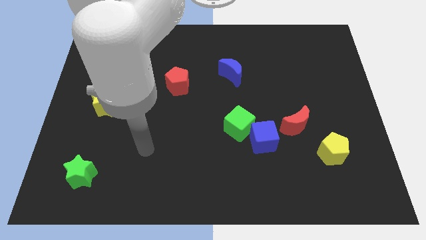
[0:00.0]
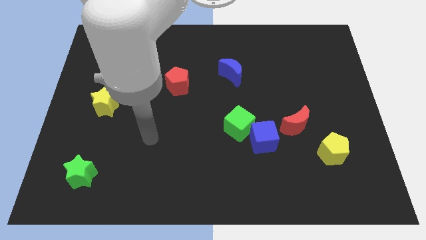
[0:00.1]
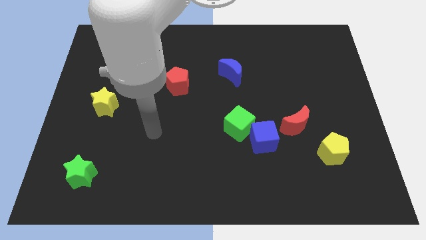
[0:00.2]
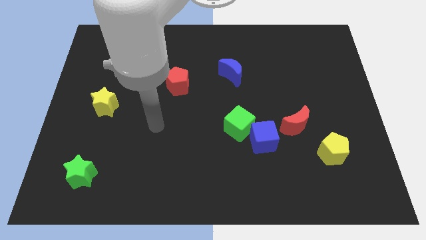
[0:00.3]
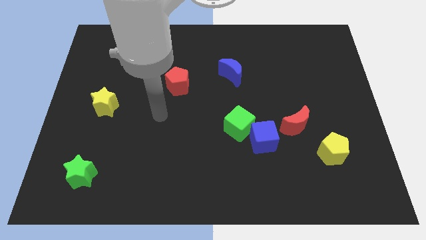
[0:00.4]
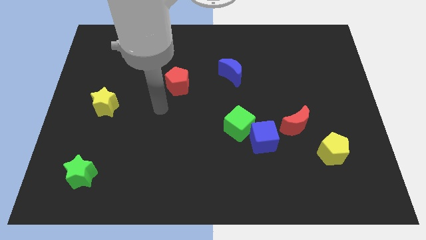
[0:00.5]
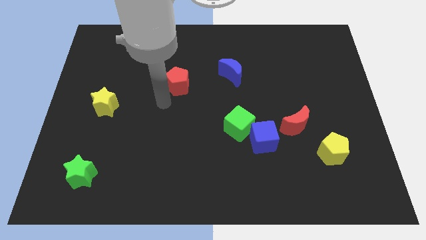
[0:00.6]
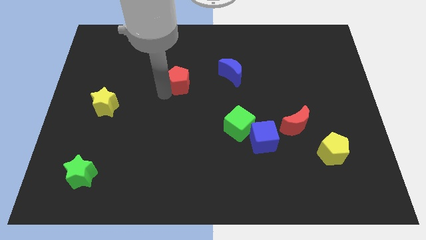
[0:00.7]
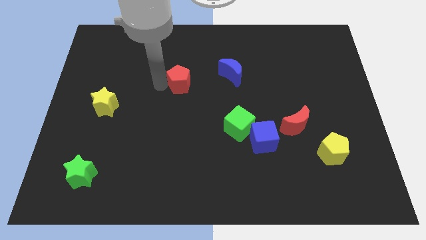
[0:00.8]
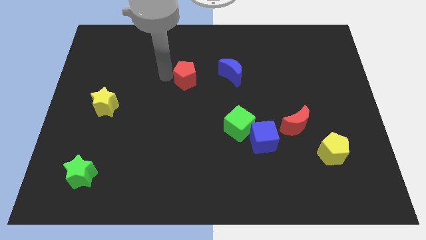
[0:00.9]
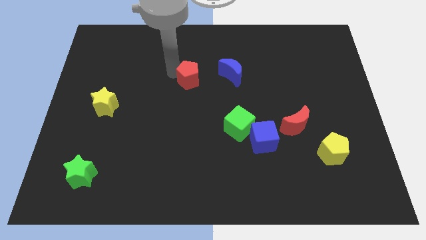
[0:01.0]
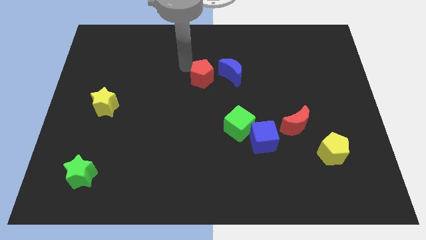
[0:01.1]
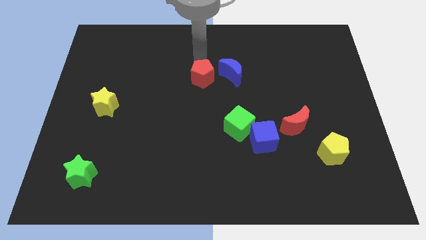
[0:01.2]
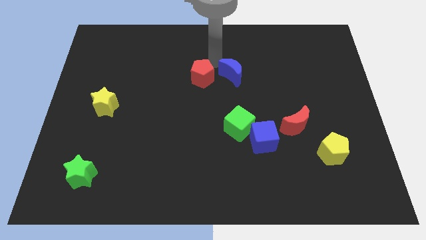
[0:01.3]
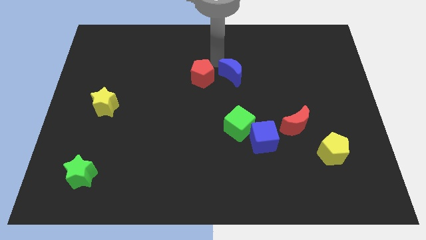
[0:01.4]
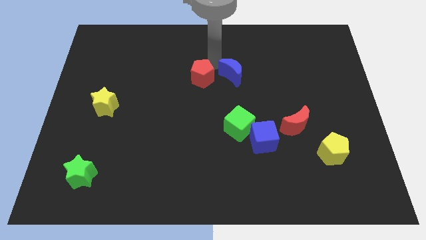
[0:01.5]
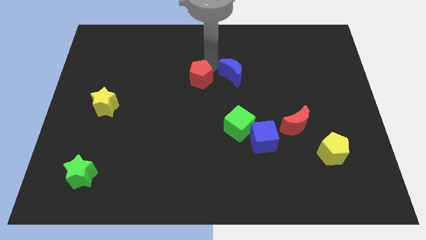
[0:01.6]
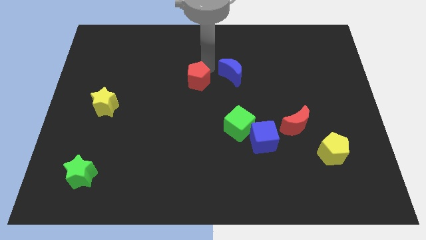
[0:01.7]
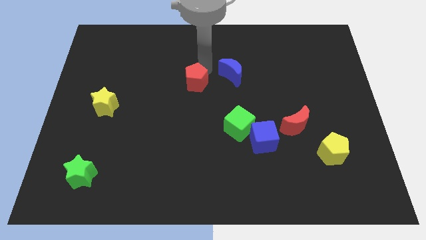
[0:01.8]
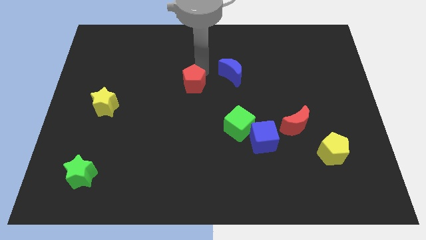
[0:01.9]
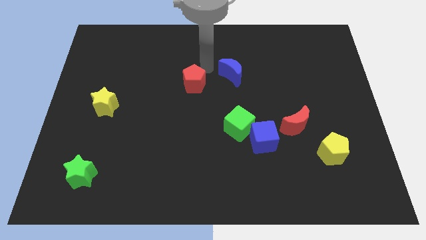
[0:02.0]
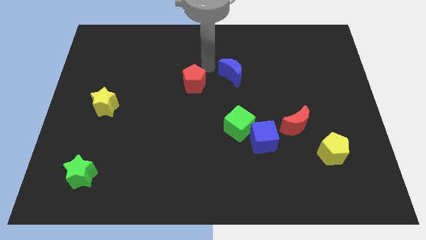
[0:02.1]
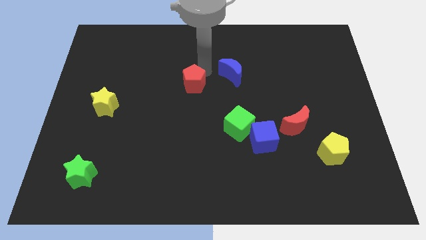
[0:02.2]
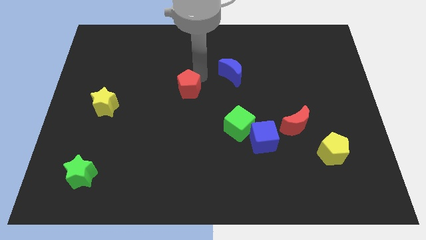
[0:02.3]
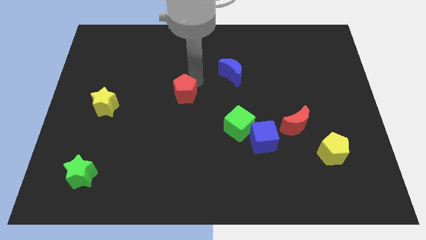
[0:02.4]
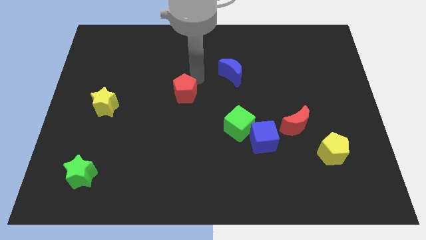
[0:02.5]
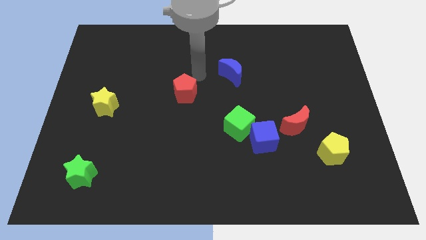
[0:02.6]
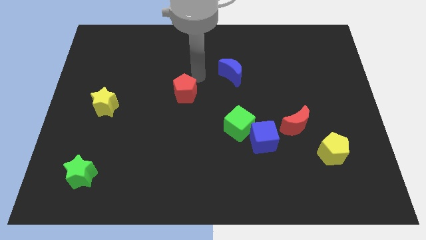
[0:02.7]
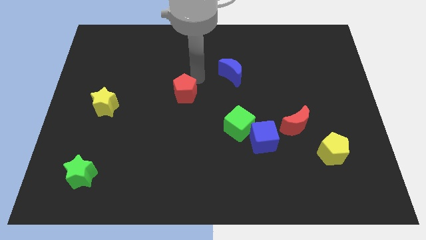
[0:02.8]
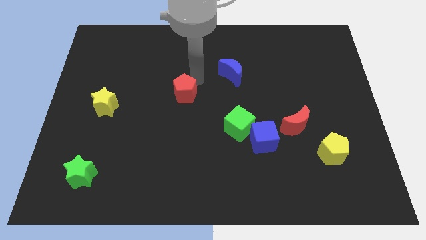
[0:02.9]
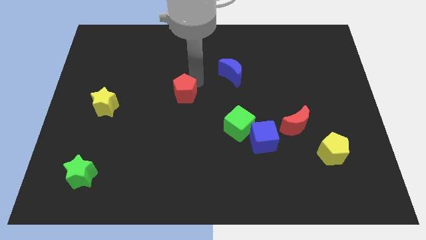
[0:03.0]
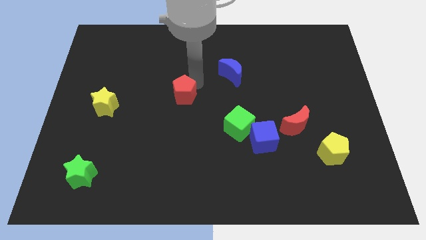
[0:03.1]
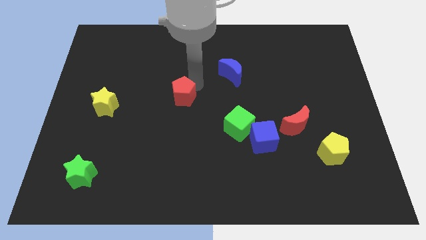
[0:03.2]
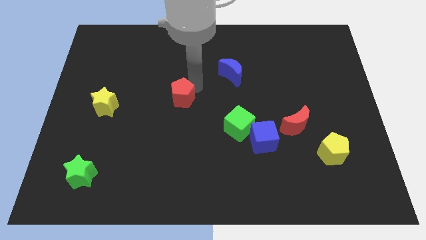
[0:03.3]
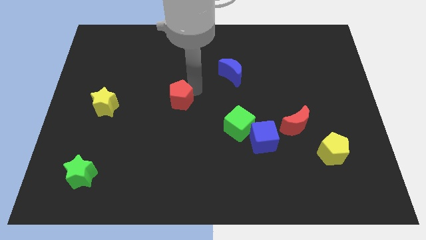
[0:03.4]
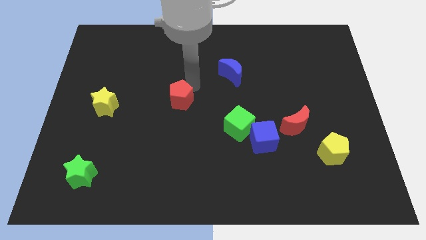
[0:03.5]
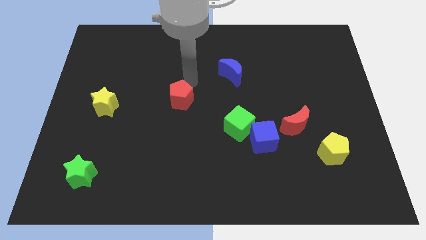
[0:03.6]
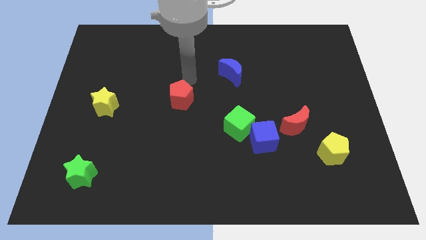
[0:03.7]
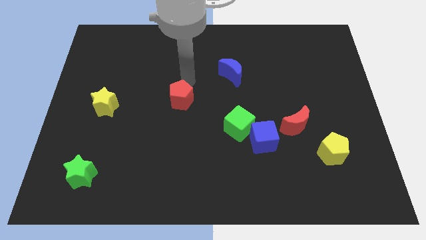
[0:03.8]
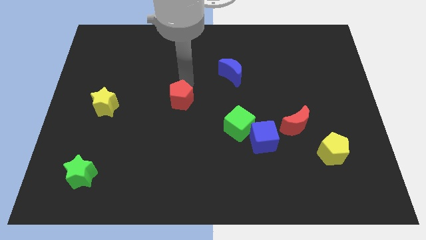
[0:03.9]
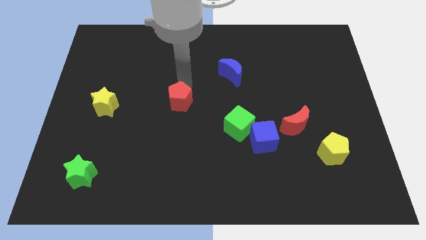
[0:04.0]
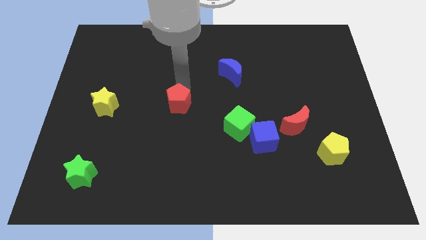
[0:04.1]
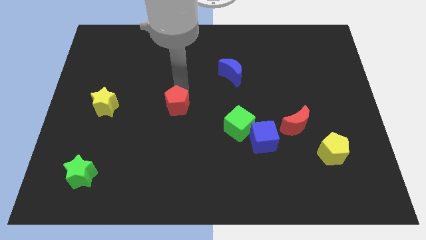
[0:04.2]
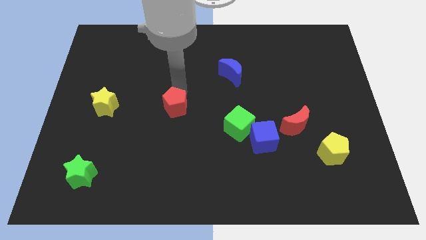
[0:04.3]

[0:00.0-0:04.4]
slightly push the red pentagon down

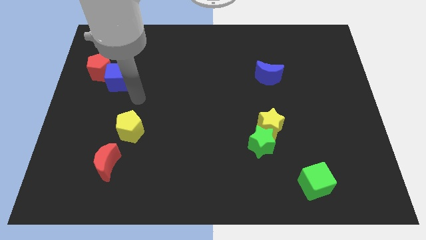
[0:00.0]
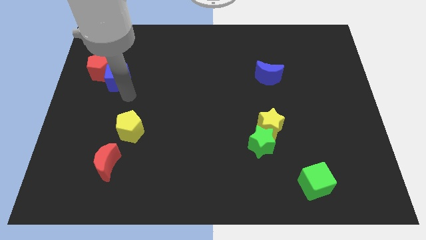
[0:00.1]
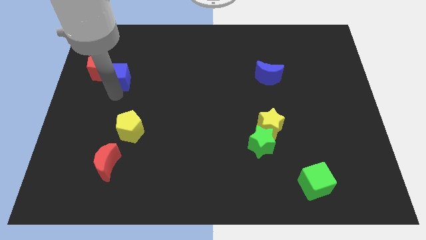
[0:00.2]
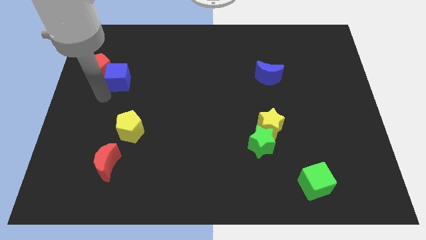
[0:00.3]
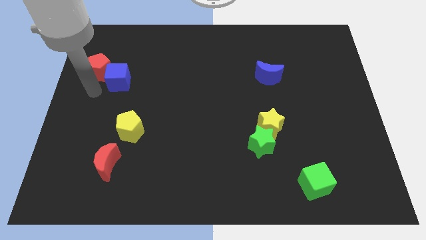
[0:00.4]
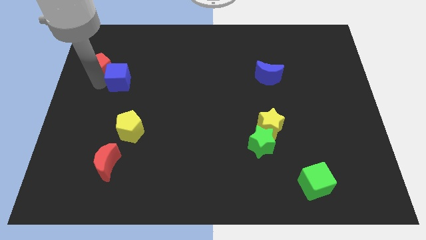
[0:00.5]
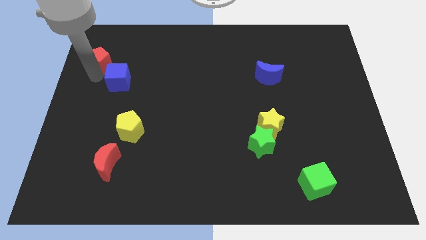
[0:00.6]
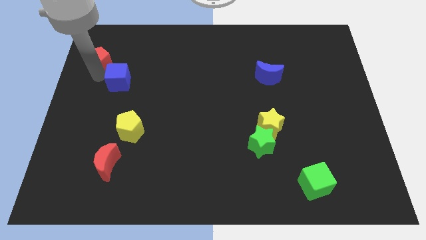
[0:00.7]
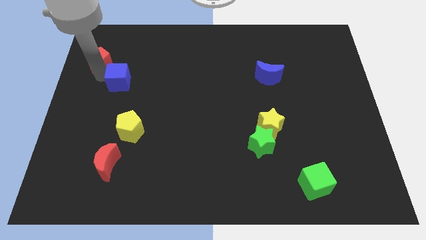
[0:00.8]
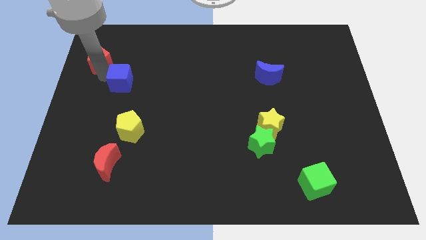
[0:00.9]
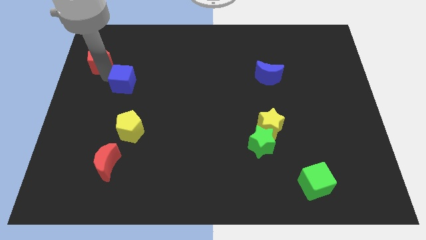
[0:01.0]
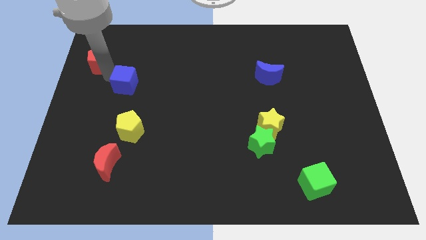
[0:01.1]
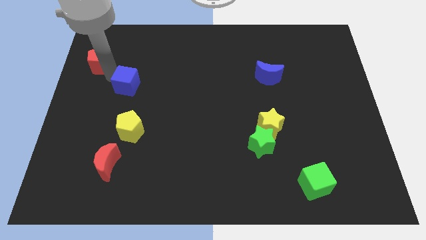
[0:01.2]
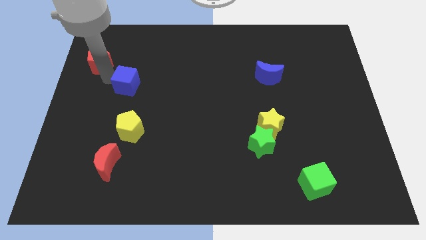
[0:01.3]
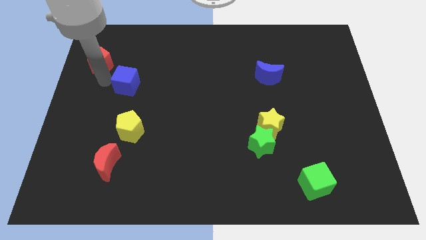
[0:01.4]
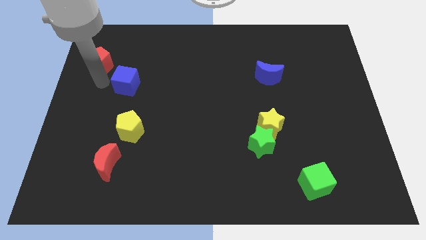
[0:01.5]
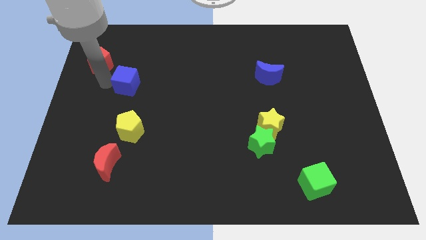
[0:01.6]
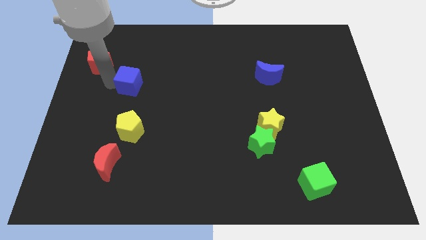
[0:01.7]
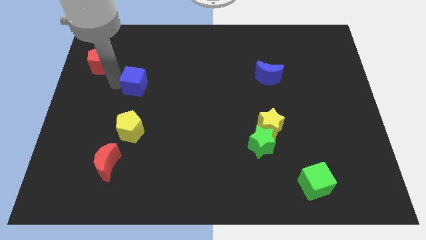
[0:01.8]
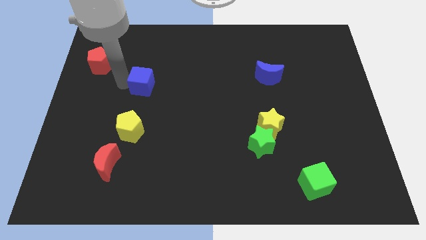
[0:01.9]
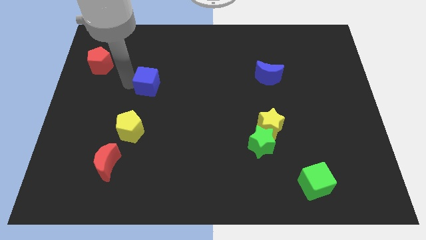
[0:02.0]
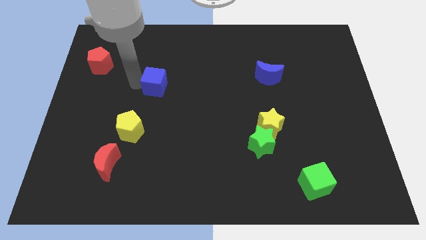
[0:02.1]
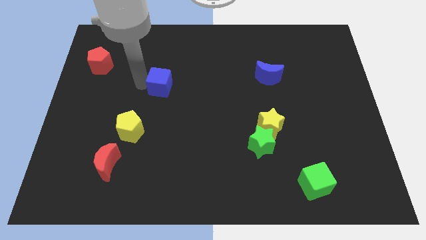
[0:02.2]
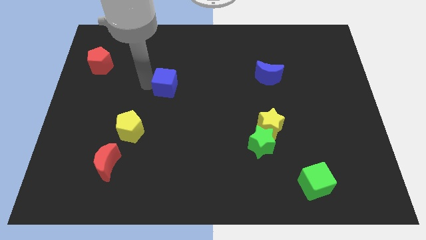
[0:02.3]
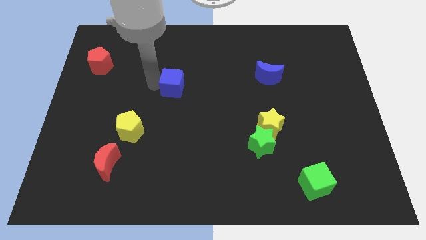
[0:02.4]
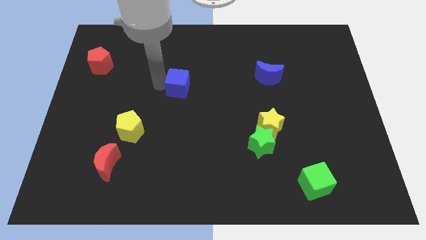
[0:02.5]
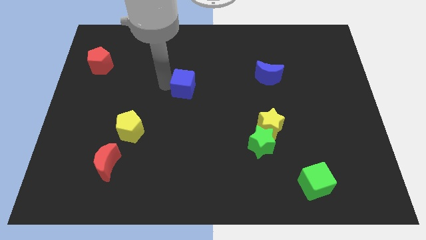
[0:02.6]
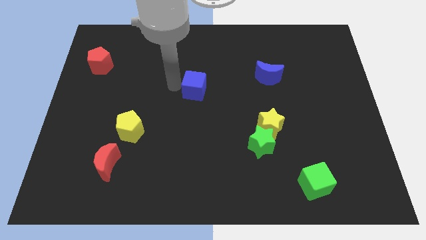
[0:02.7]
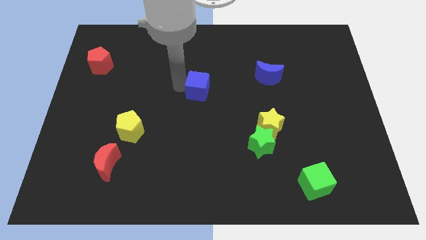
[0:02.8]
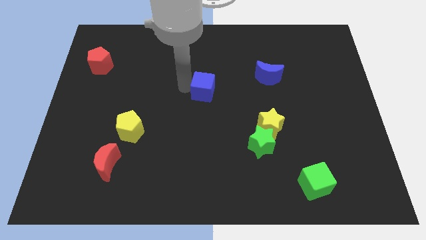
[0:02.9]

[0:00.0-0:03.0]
slide the blue cube right

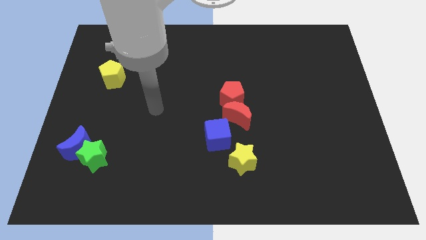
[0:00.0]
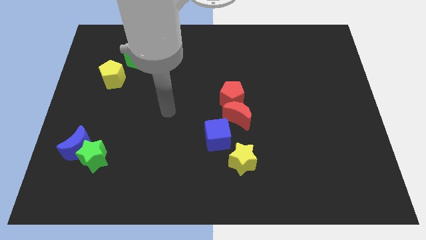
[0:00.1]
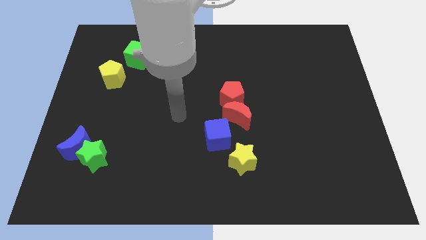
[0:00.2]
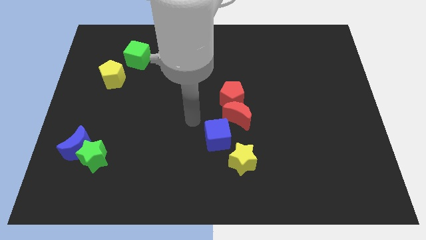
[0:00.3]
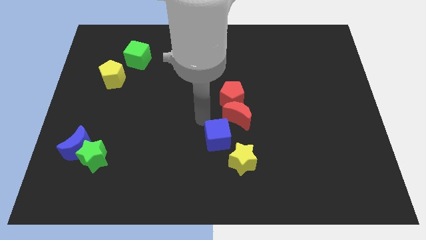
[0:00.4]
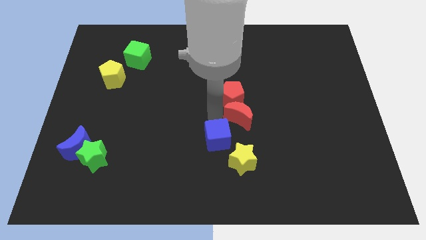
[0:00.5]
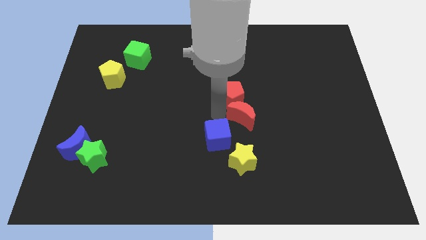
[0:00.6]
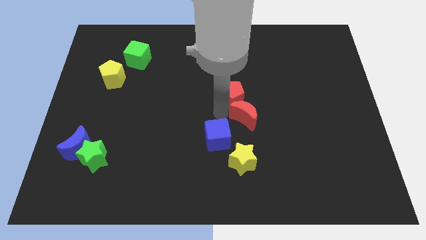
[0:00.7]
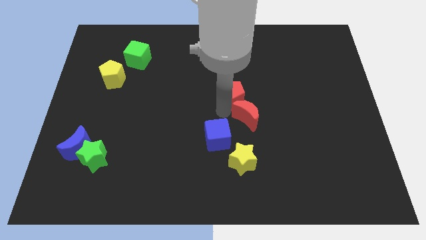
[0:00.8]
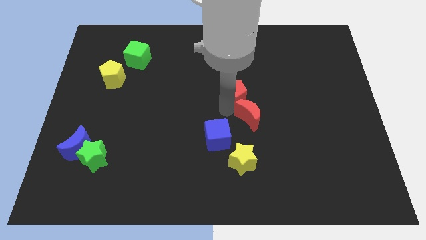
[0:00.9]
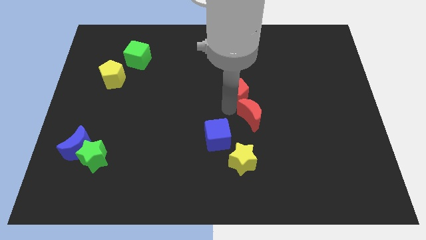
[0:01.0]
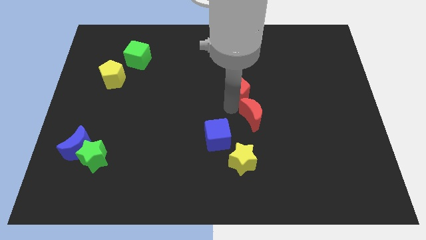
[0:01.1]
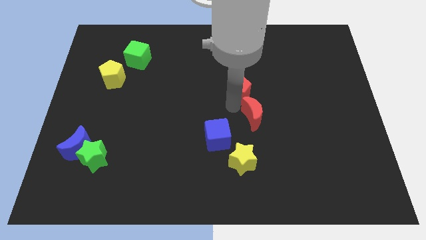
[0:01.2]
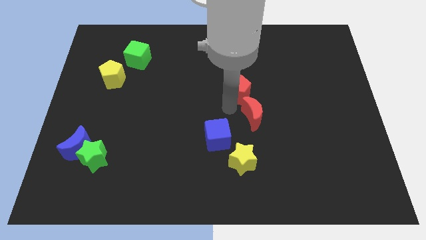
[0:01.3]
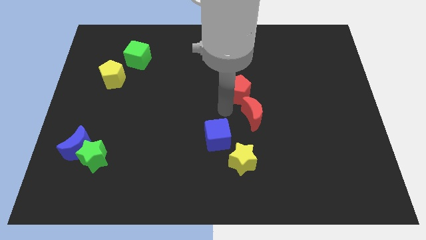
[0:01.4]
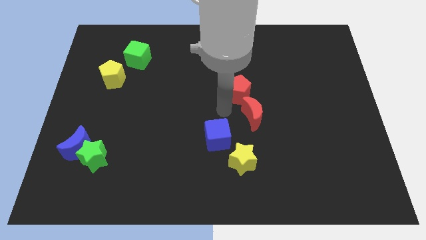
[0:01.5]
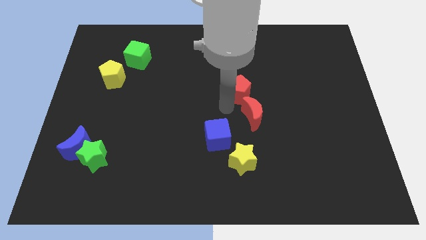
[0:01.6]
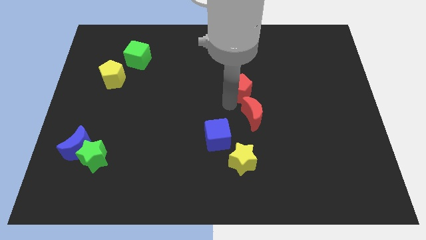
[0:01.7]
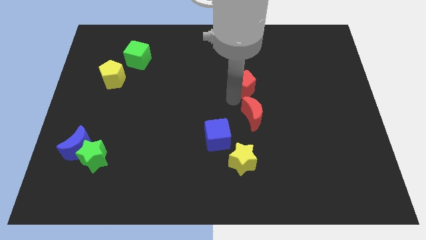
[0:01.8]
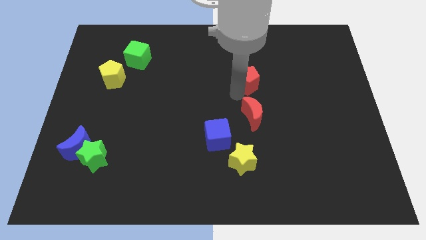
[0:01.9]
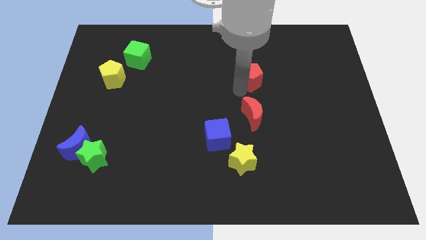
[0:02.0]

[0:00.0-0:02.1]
push the red pentagon upwards and then to the right a little
